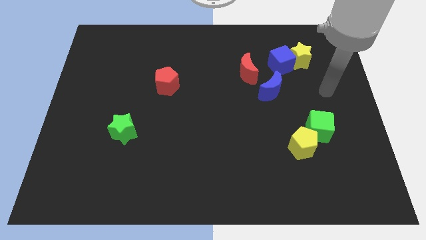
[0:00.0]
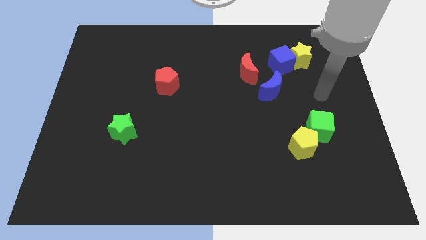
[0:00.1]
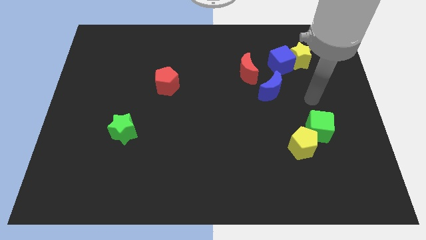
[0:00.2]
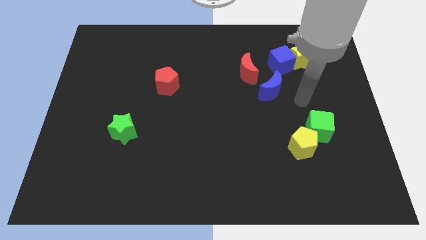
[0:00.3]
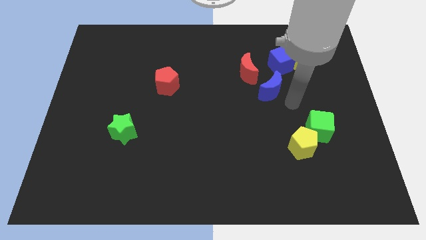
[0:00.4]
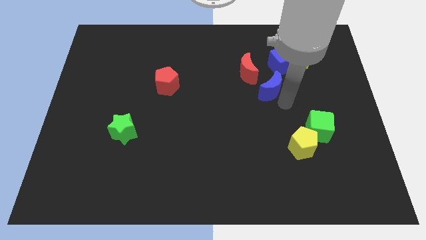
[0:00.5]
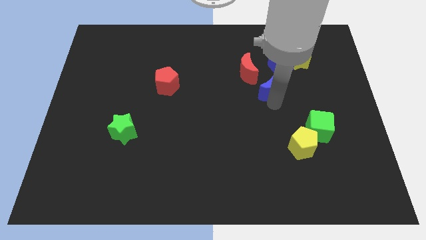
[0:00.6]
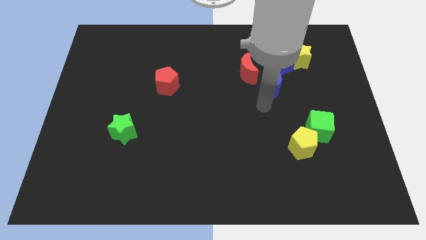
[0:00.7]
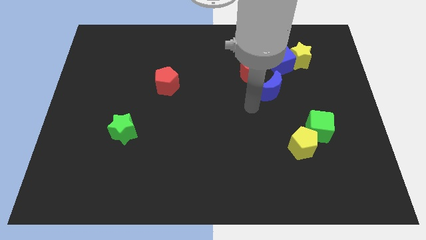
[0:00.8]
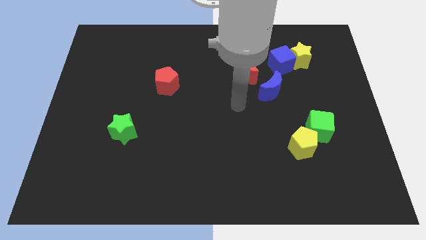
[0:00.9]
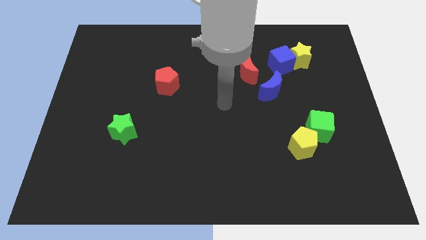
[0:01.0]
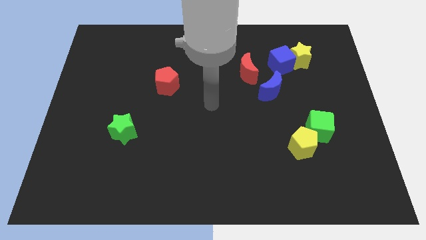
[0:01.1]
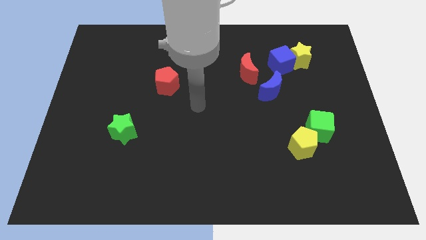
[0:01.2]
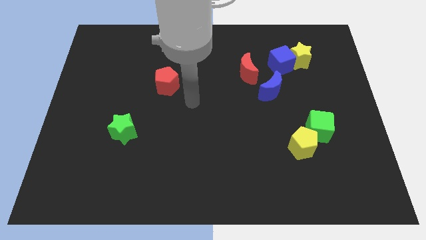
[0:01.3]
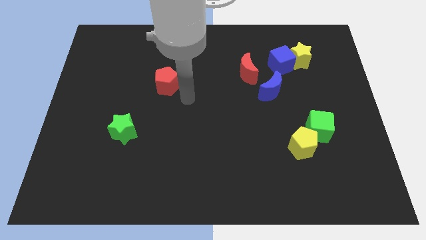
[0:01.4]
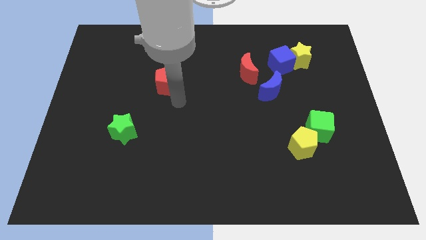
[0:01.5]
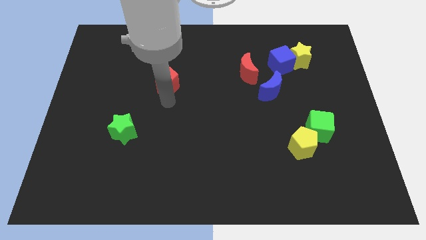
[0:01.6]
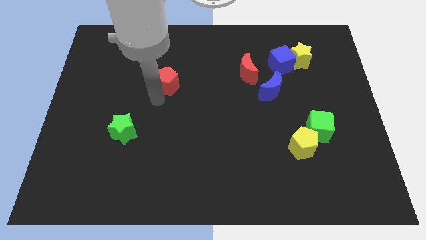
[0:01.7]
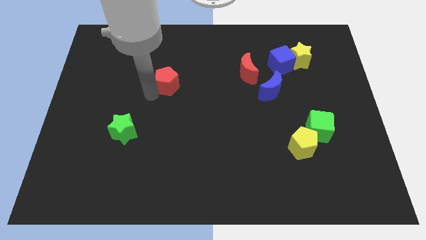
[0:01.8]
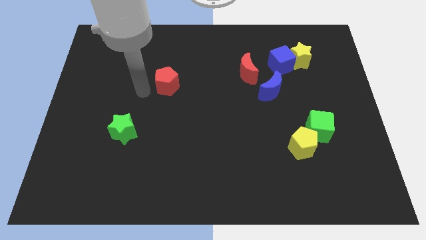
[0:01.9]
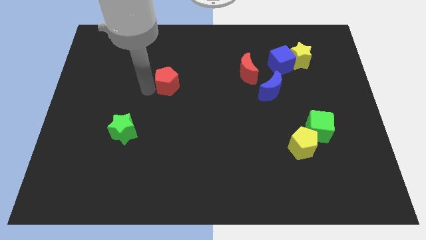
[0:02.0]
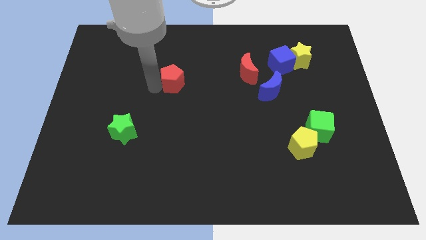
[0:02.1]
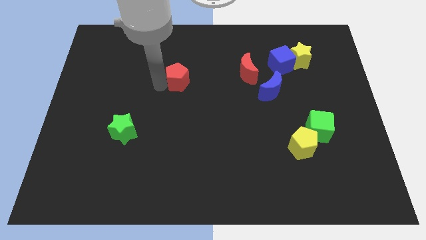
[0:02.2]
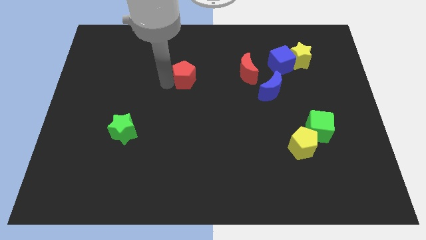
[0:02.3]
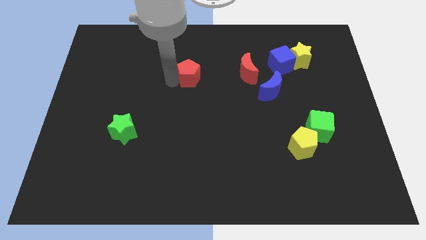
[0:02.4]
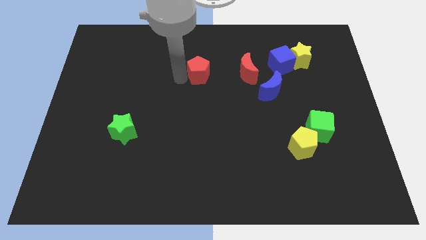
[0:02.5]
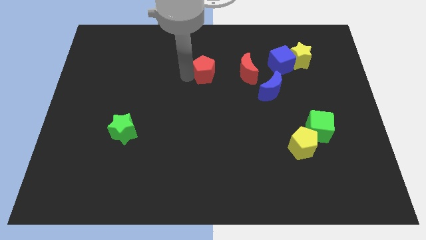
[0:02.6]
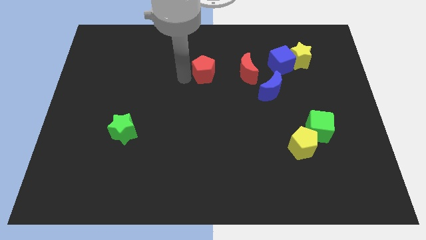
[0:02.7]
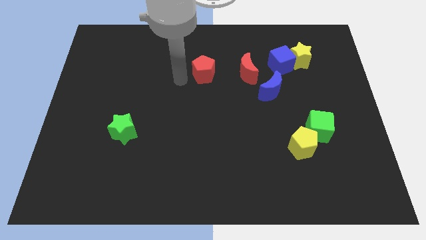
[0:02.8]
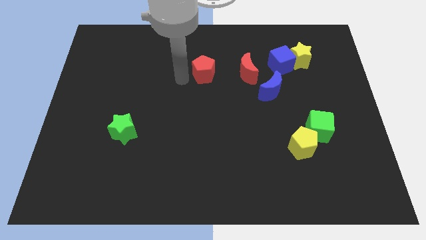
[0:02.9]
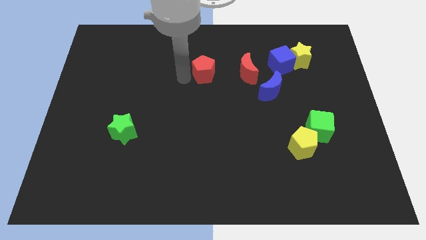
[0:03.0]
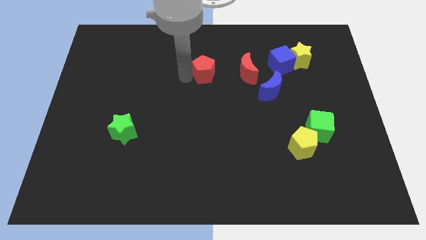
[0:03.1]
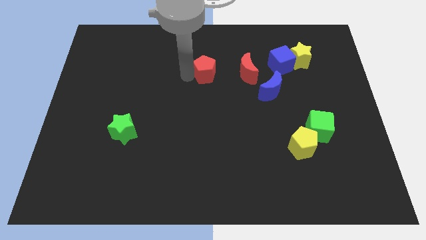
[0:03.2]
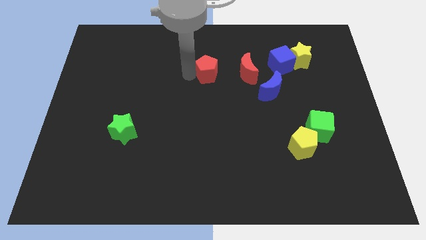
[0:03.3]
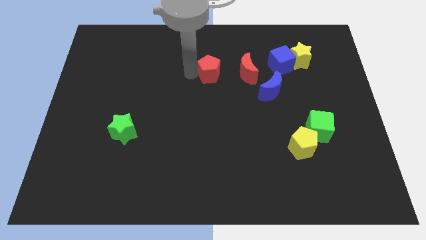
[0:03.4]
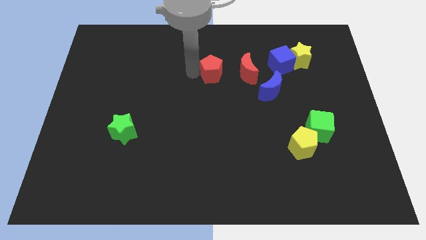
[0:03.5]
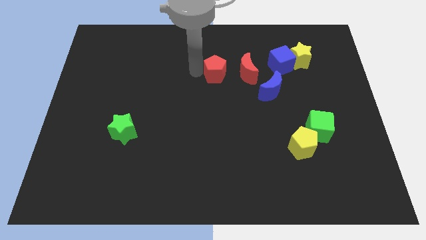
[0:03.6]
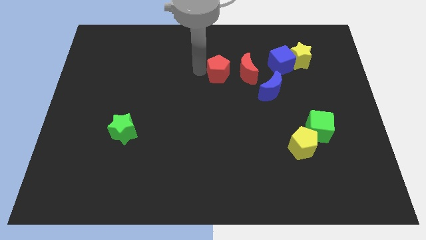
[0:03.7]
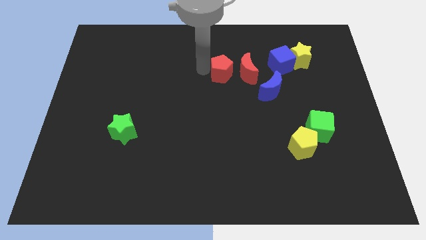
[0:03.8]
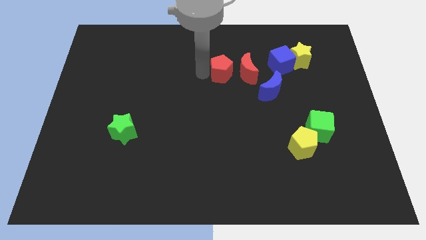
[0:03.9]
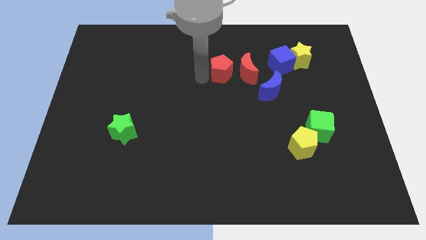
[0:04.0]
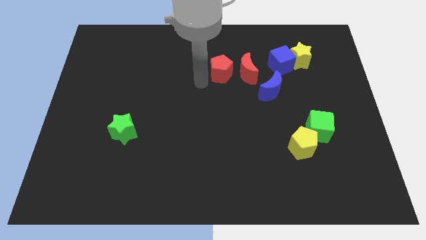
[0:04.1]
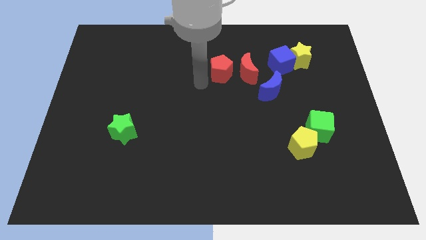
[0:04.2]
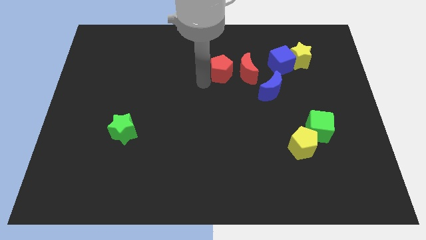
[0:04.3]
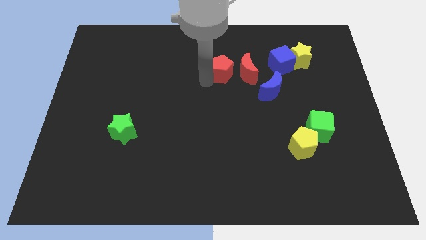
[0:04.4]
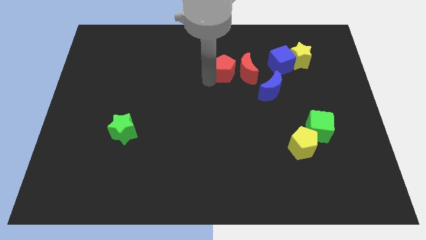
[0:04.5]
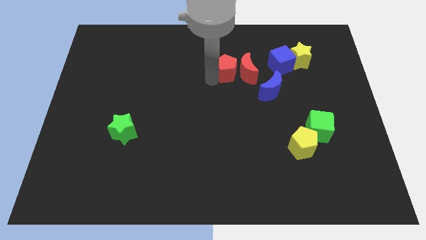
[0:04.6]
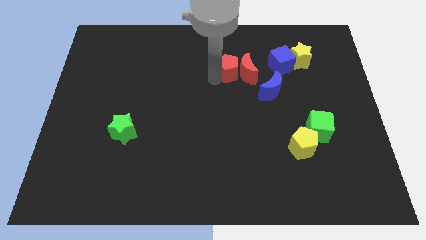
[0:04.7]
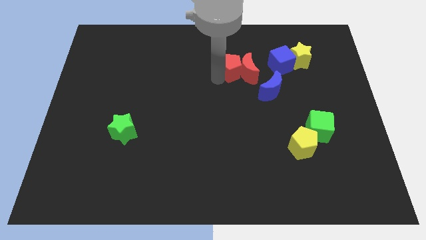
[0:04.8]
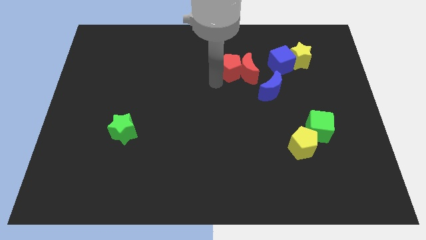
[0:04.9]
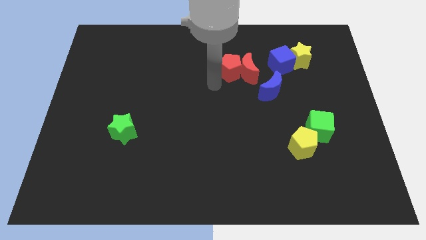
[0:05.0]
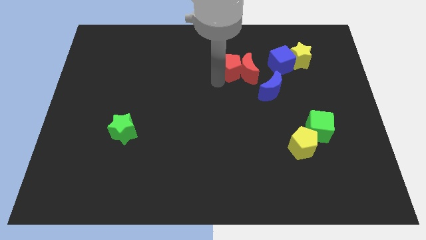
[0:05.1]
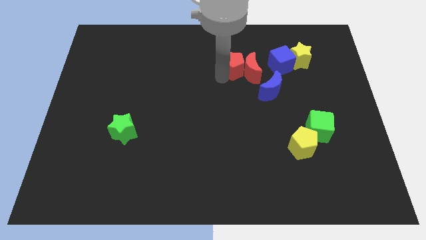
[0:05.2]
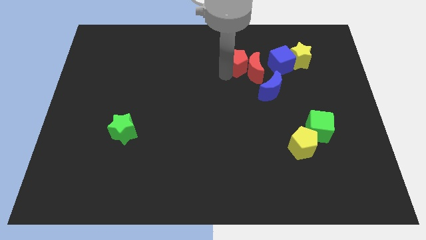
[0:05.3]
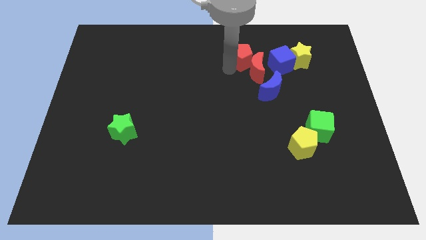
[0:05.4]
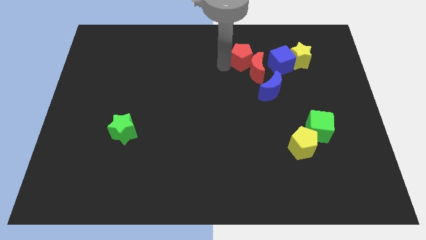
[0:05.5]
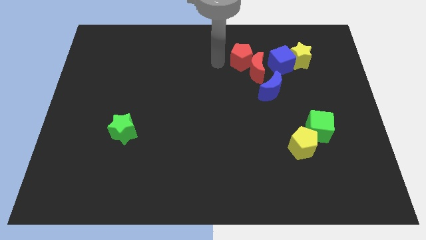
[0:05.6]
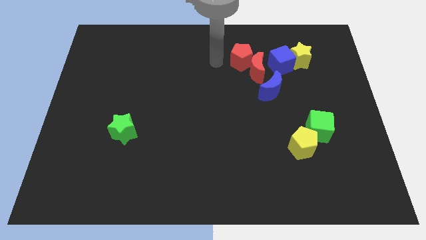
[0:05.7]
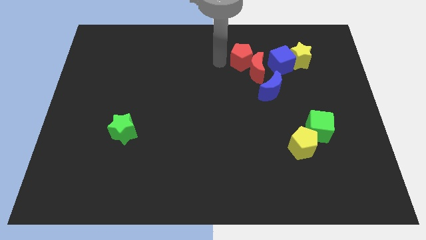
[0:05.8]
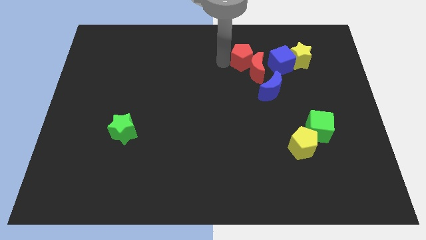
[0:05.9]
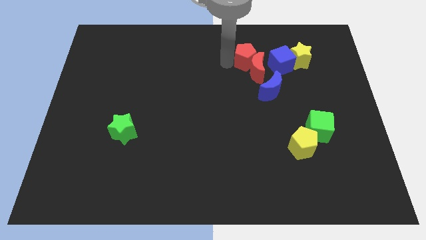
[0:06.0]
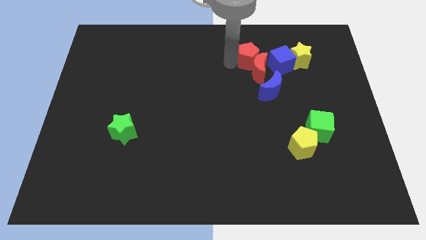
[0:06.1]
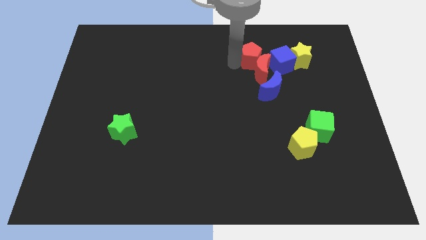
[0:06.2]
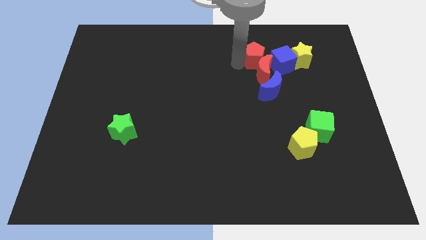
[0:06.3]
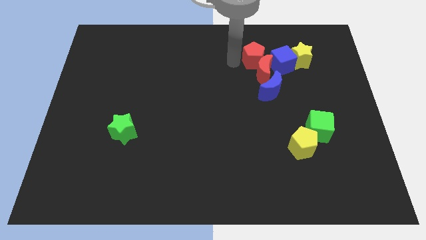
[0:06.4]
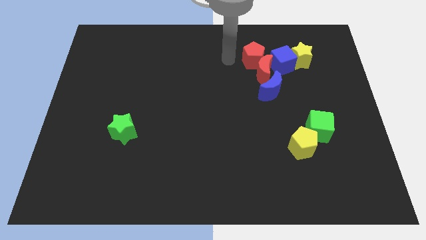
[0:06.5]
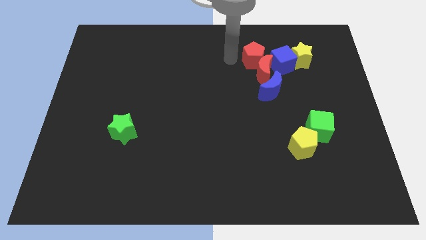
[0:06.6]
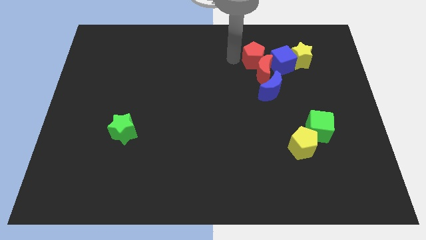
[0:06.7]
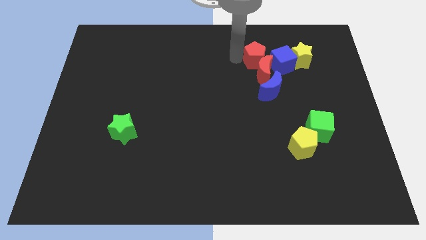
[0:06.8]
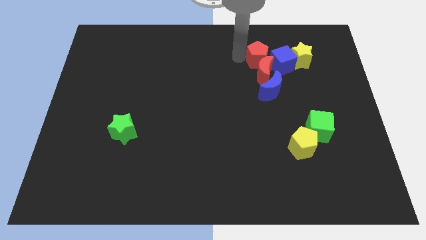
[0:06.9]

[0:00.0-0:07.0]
slide the red pentagon to the top right of the red moon
